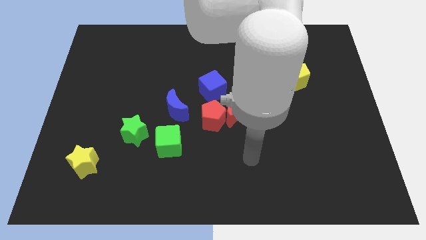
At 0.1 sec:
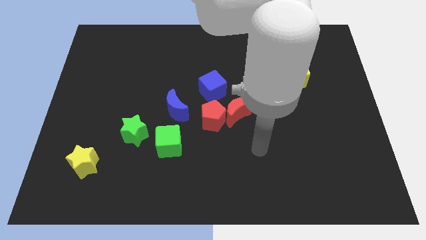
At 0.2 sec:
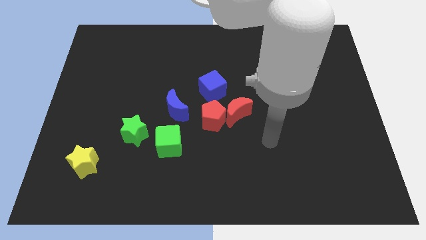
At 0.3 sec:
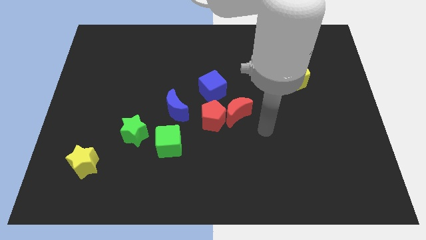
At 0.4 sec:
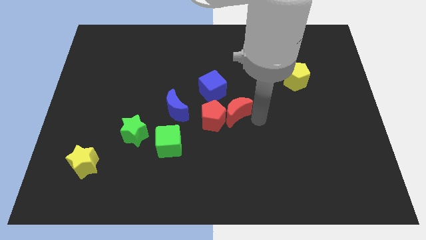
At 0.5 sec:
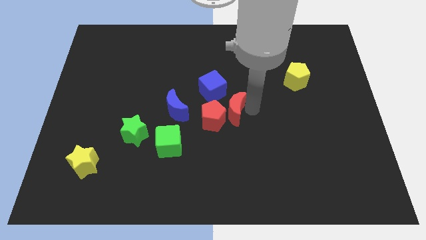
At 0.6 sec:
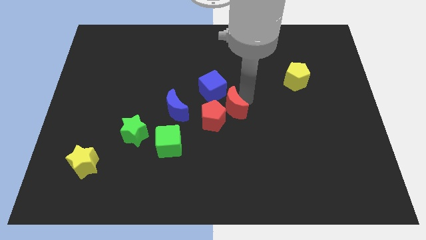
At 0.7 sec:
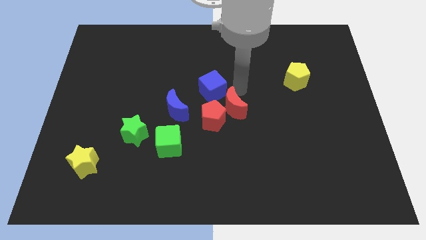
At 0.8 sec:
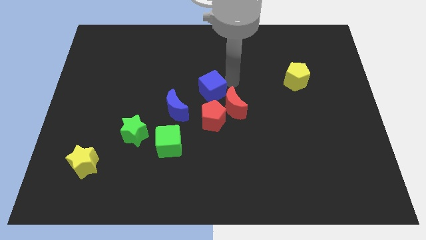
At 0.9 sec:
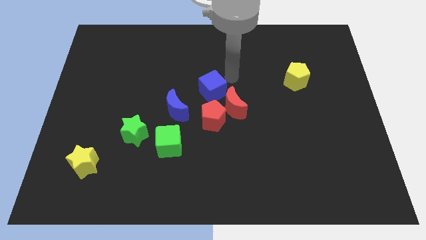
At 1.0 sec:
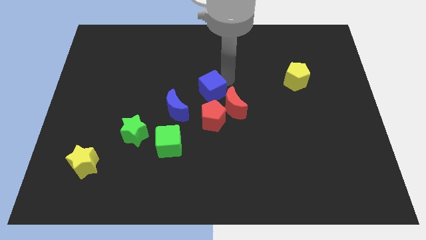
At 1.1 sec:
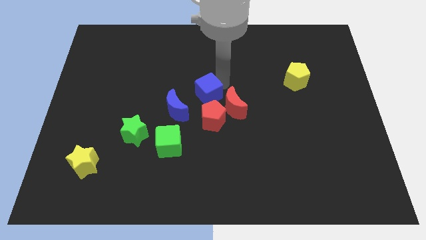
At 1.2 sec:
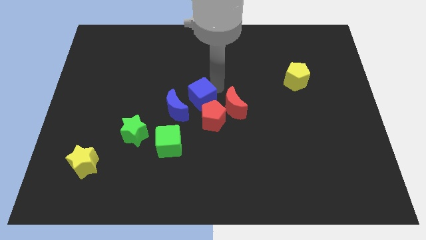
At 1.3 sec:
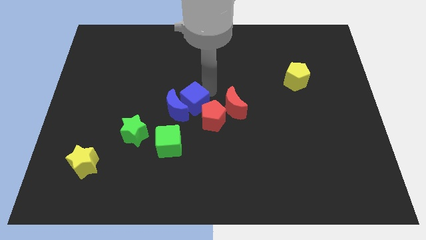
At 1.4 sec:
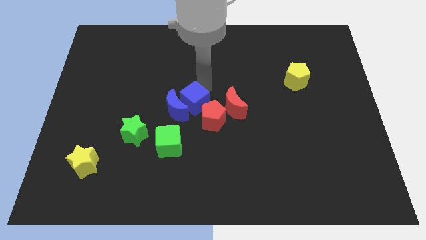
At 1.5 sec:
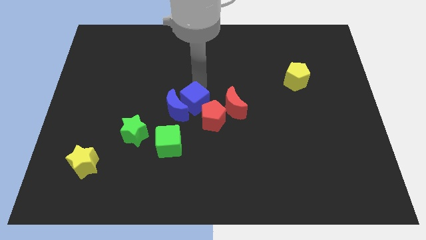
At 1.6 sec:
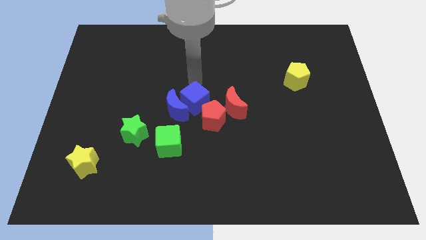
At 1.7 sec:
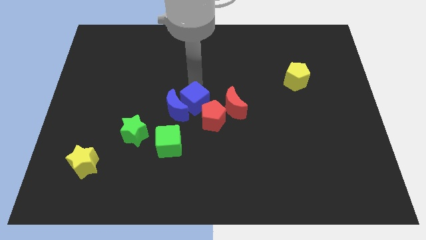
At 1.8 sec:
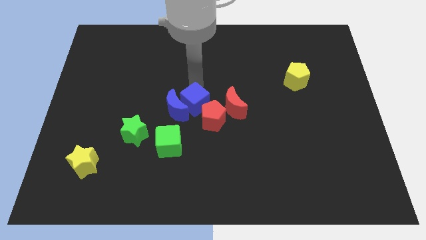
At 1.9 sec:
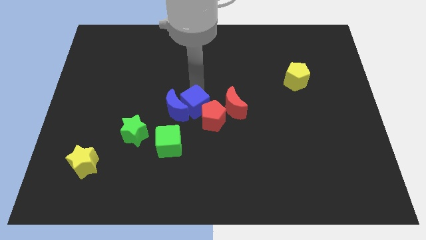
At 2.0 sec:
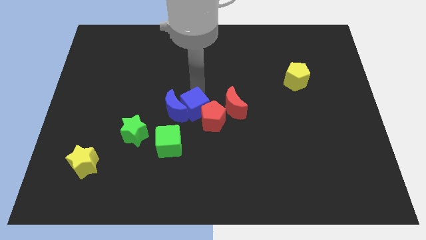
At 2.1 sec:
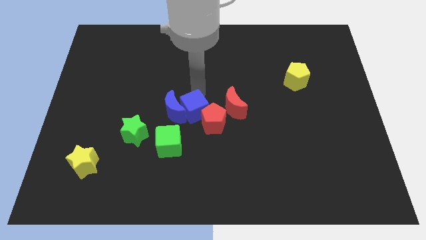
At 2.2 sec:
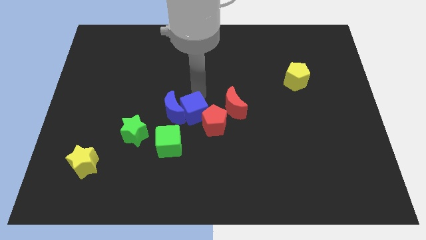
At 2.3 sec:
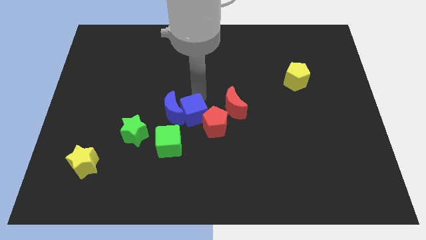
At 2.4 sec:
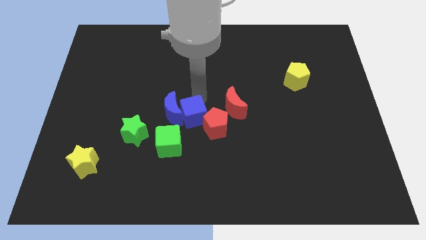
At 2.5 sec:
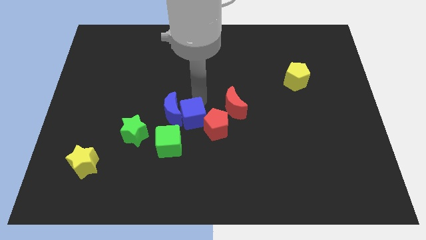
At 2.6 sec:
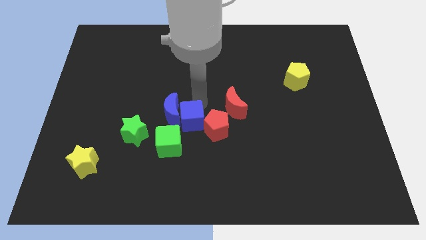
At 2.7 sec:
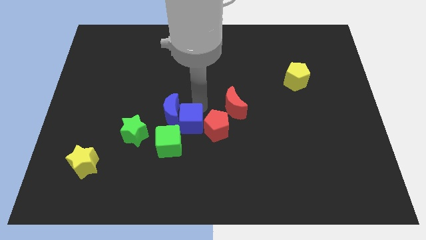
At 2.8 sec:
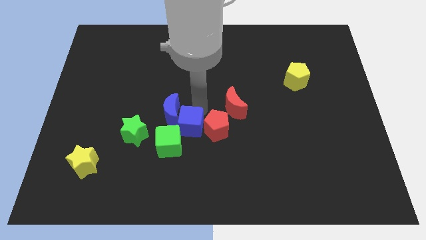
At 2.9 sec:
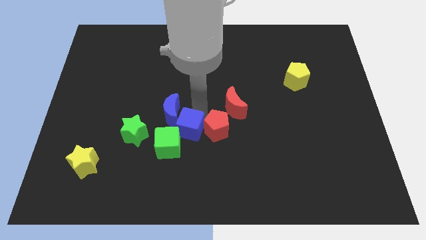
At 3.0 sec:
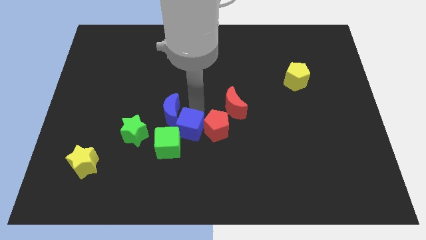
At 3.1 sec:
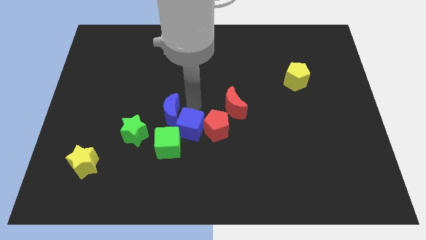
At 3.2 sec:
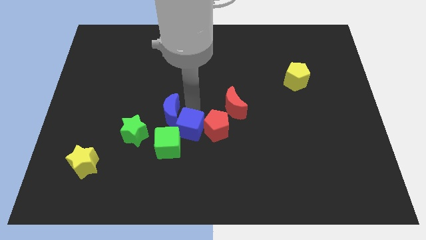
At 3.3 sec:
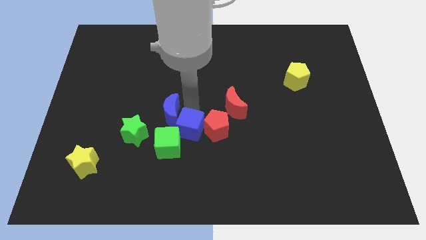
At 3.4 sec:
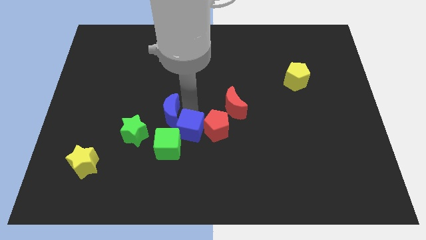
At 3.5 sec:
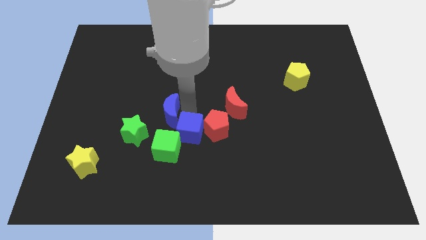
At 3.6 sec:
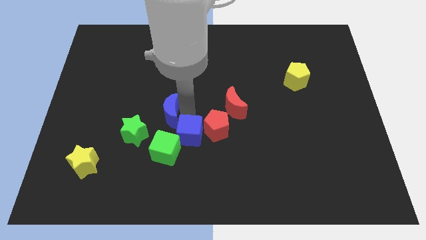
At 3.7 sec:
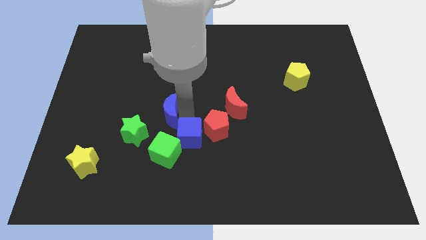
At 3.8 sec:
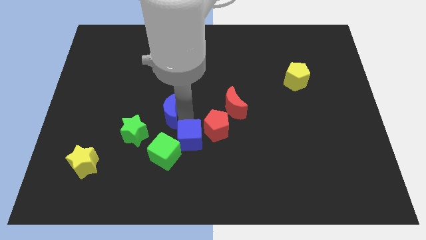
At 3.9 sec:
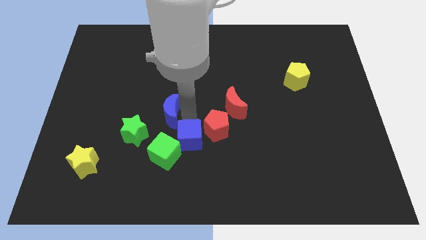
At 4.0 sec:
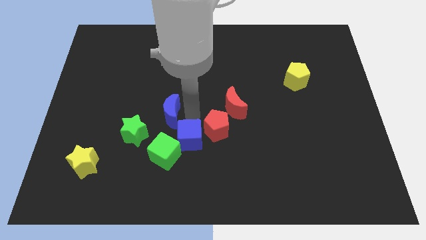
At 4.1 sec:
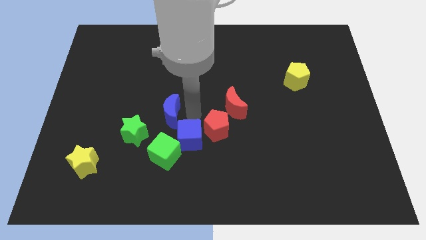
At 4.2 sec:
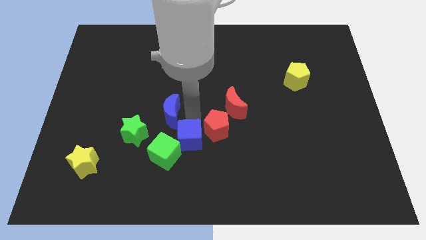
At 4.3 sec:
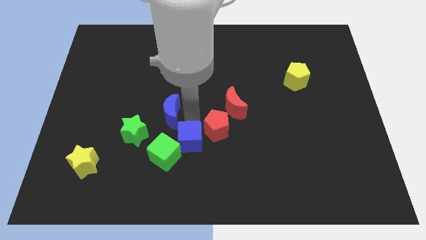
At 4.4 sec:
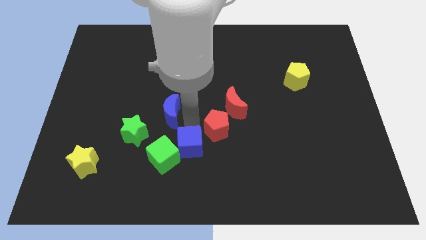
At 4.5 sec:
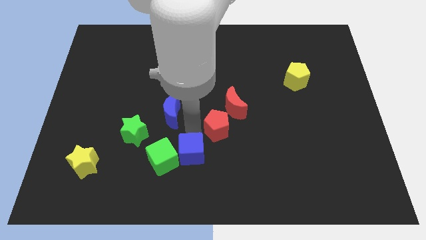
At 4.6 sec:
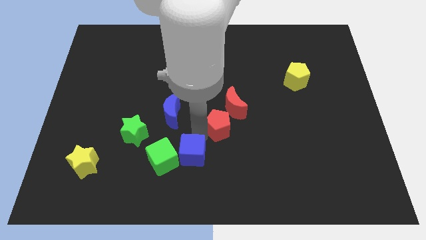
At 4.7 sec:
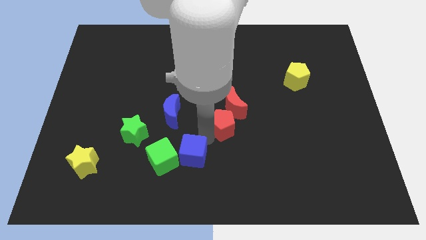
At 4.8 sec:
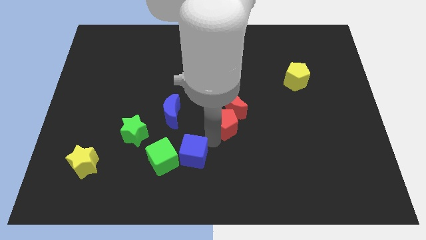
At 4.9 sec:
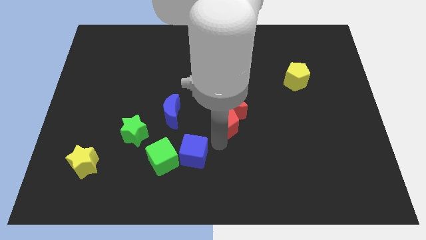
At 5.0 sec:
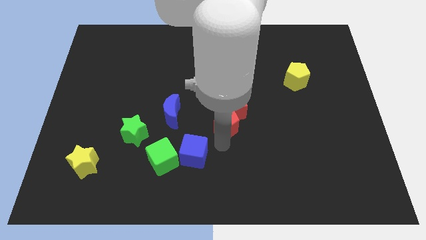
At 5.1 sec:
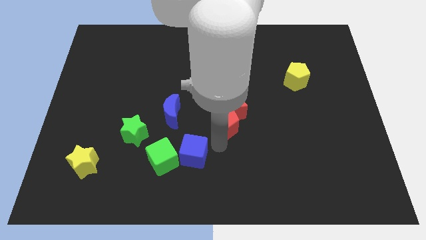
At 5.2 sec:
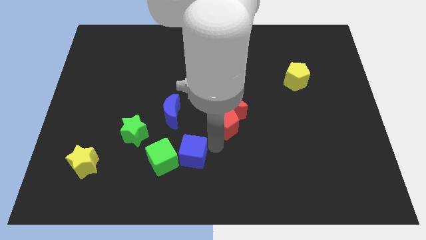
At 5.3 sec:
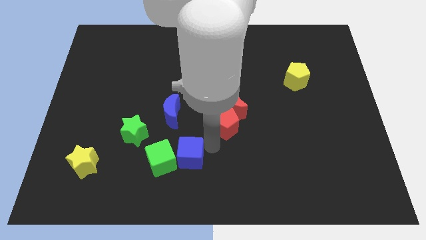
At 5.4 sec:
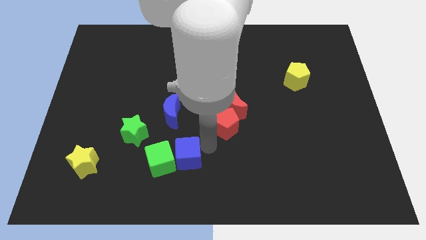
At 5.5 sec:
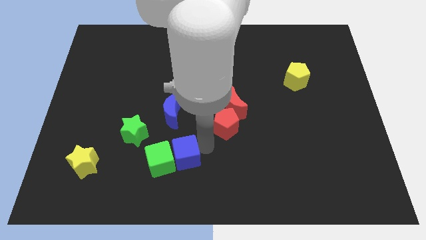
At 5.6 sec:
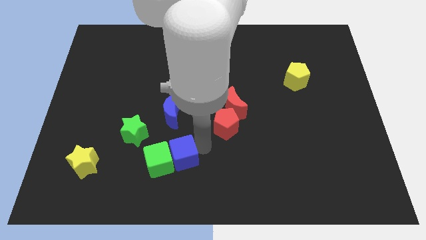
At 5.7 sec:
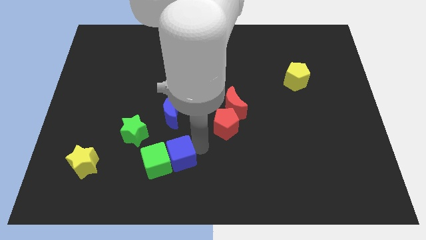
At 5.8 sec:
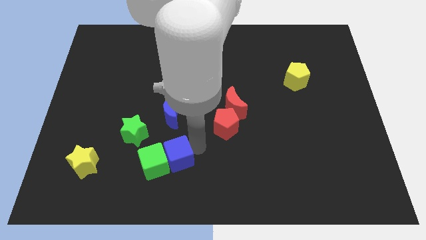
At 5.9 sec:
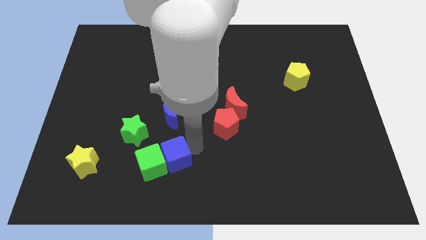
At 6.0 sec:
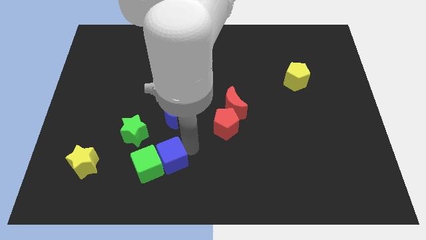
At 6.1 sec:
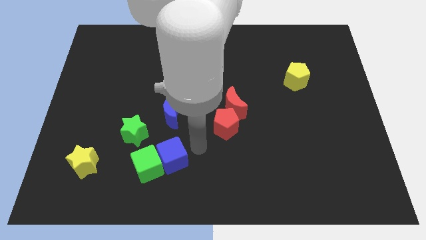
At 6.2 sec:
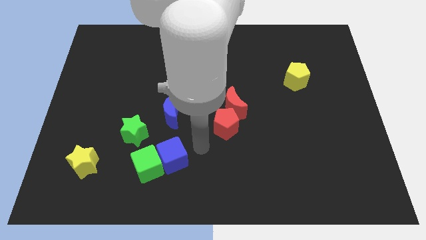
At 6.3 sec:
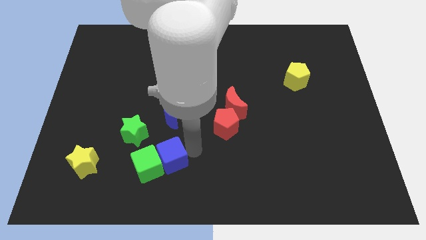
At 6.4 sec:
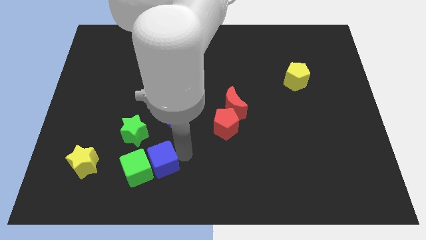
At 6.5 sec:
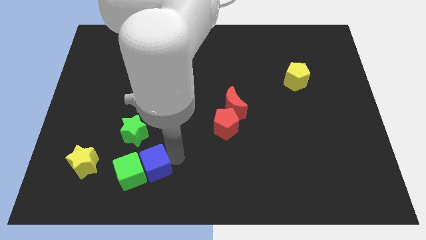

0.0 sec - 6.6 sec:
slide the blue cube downwards and then left

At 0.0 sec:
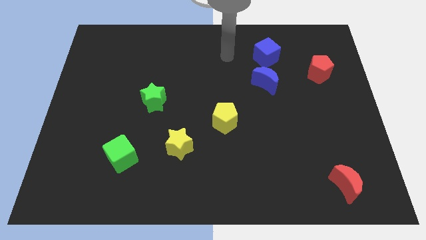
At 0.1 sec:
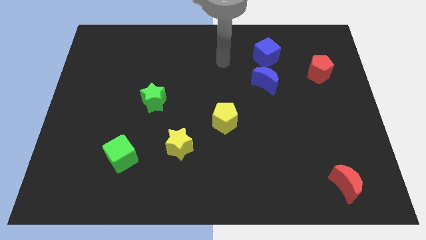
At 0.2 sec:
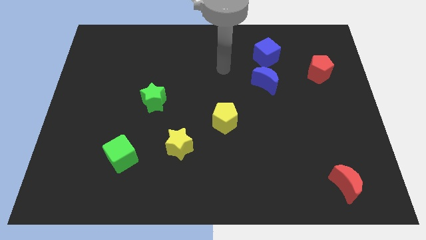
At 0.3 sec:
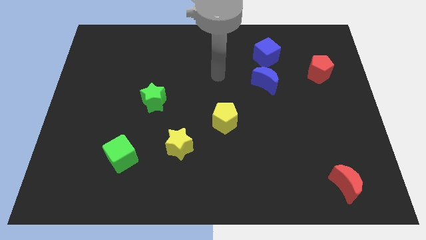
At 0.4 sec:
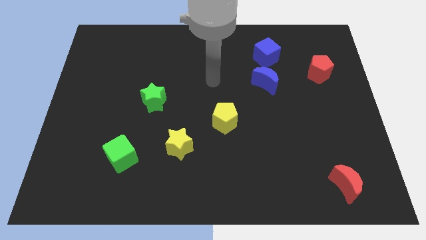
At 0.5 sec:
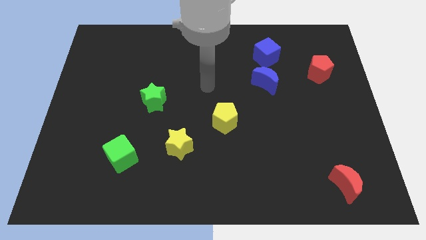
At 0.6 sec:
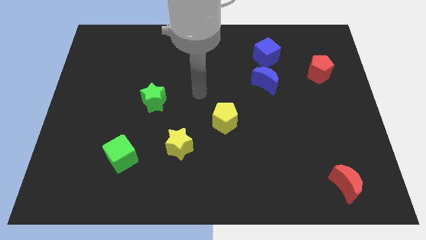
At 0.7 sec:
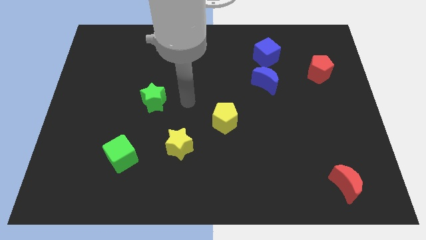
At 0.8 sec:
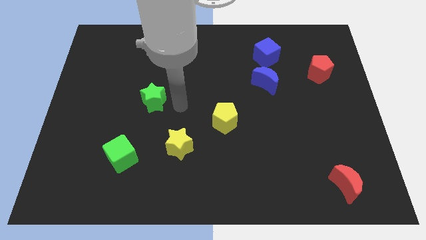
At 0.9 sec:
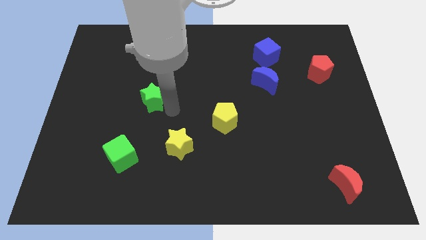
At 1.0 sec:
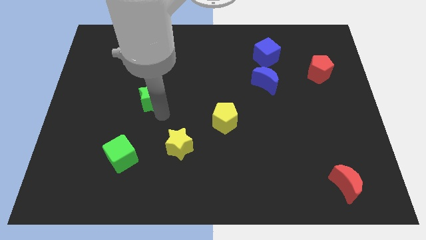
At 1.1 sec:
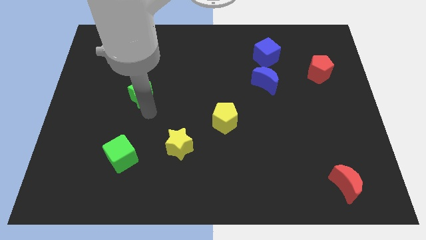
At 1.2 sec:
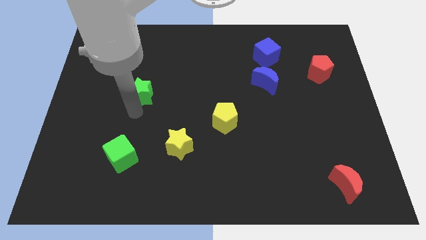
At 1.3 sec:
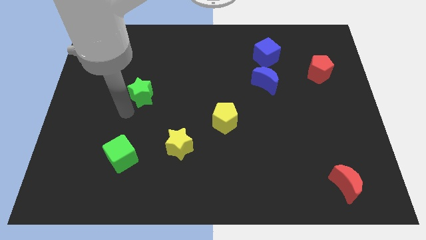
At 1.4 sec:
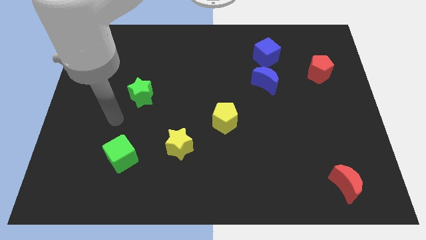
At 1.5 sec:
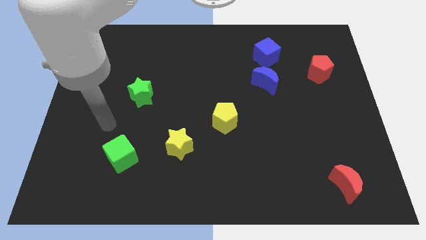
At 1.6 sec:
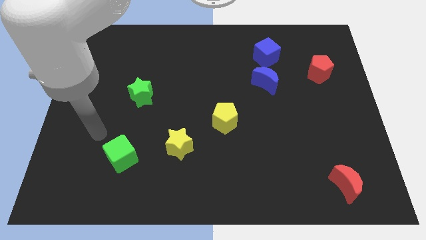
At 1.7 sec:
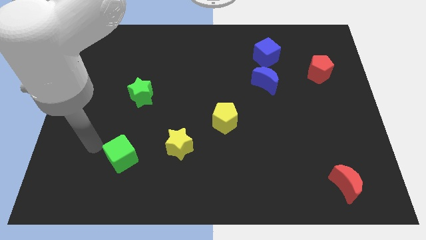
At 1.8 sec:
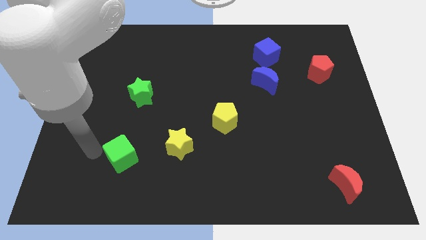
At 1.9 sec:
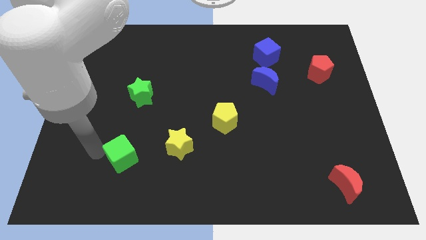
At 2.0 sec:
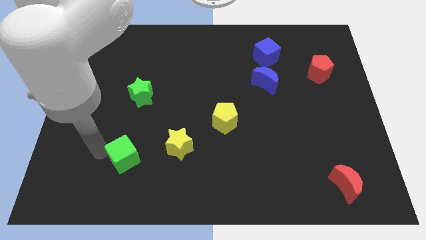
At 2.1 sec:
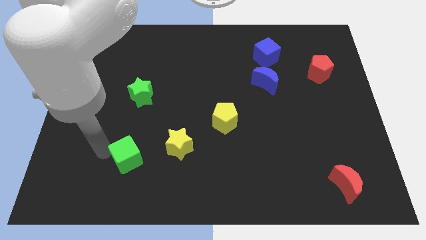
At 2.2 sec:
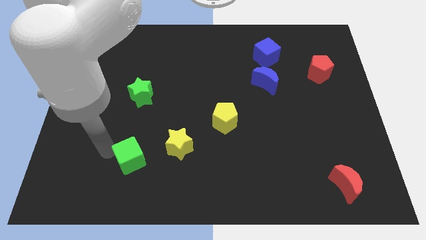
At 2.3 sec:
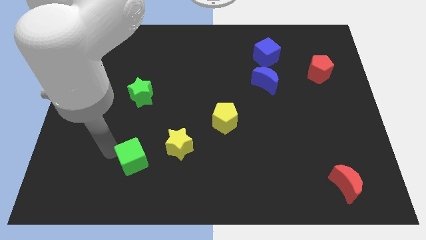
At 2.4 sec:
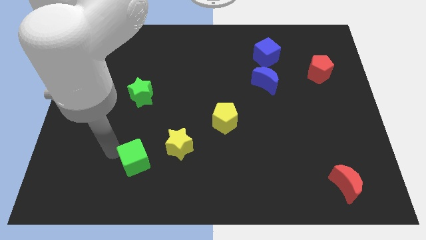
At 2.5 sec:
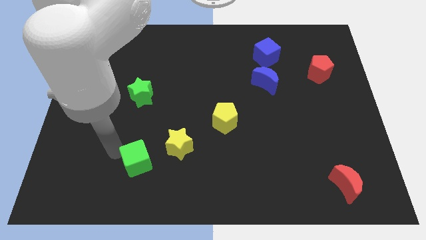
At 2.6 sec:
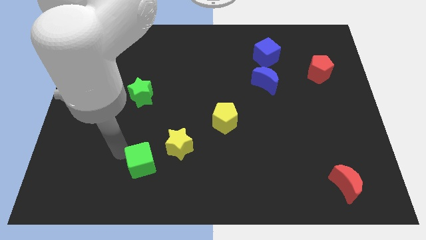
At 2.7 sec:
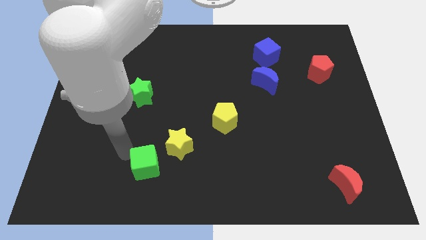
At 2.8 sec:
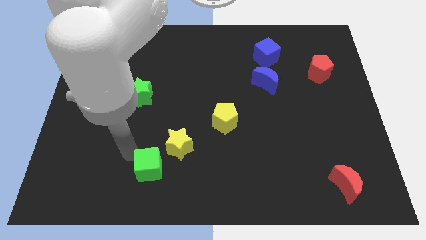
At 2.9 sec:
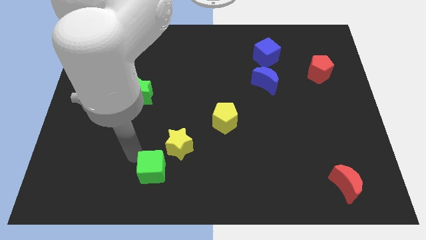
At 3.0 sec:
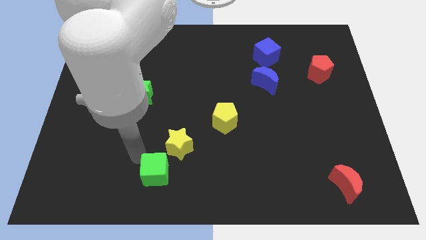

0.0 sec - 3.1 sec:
slide the green cube a bit right
